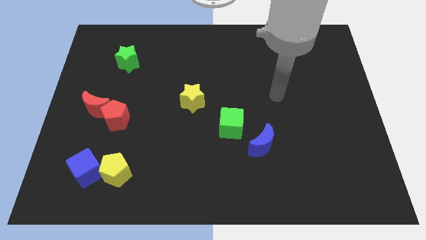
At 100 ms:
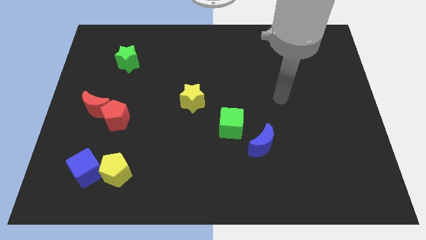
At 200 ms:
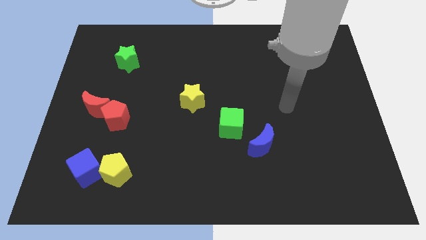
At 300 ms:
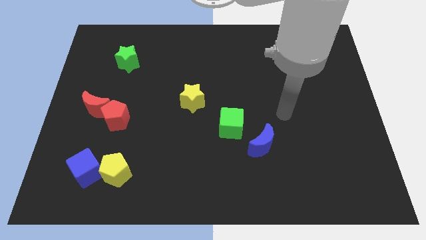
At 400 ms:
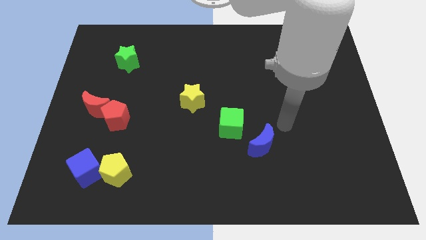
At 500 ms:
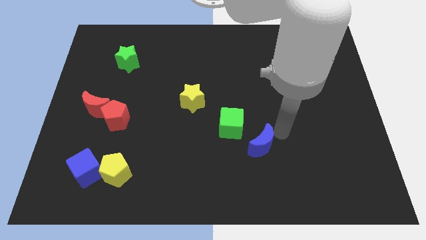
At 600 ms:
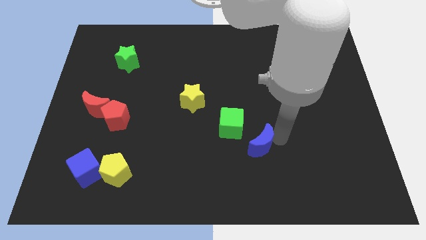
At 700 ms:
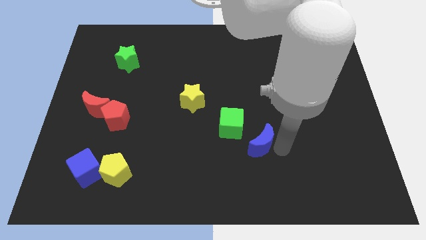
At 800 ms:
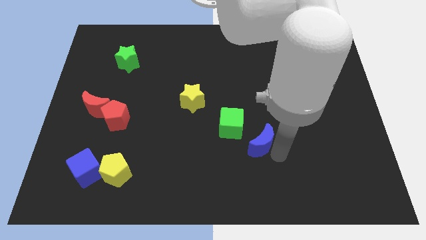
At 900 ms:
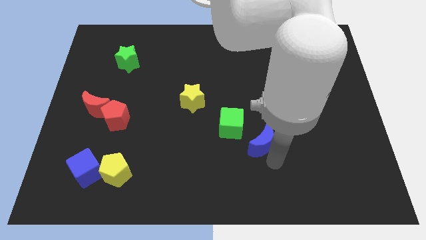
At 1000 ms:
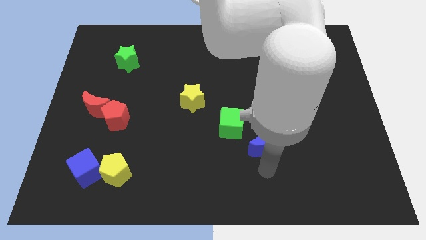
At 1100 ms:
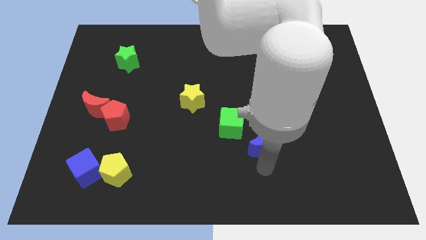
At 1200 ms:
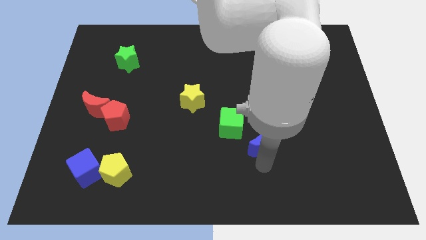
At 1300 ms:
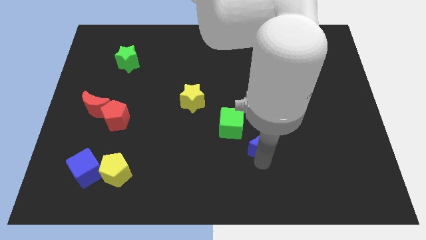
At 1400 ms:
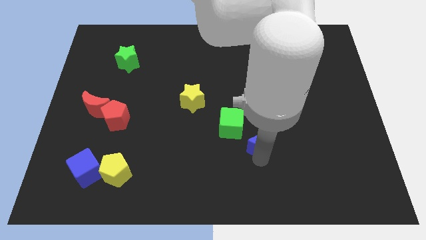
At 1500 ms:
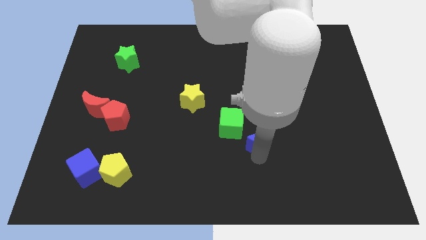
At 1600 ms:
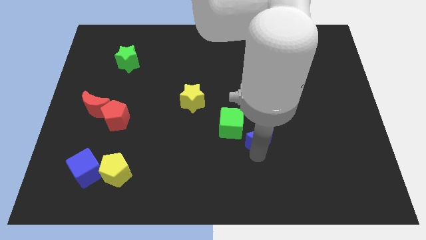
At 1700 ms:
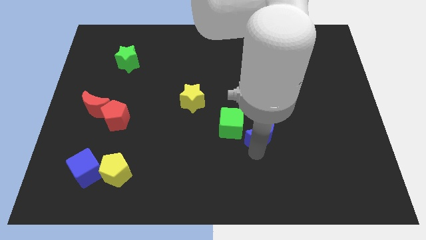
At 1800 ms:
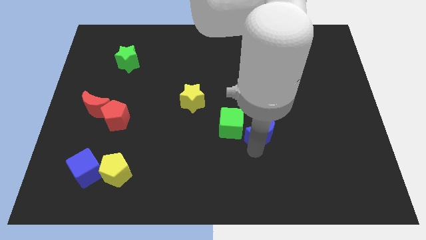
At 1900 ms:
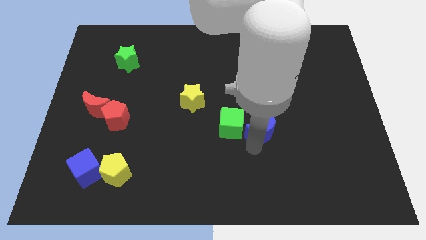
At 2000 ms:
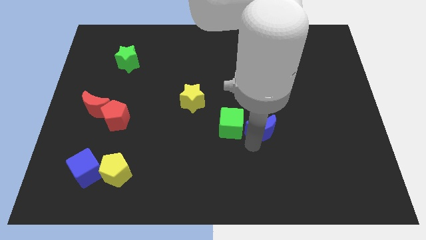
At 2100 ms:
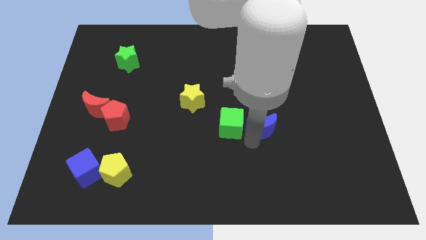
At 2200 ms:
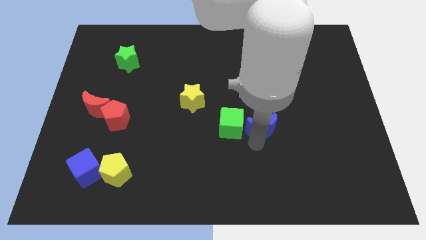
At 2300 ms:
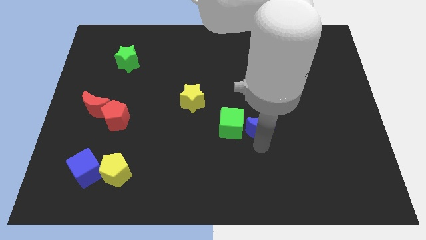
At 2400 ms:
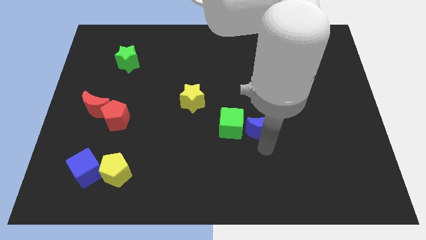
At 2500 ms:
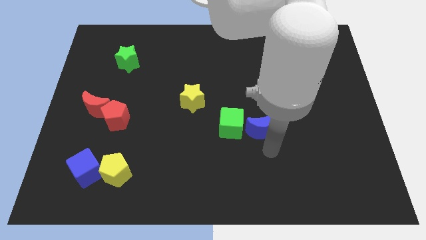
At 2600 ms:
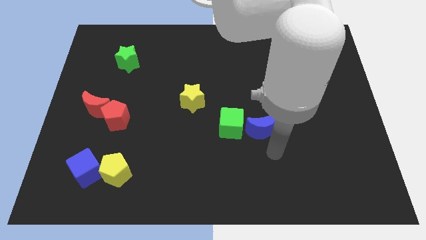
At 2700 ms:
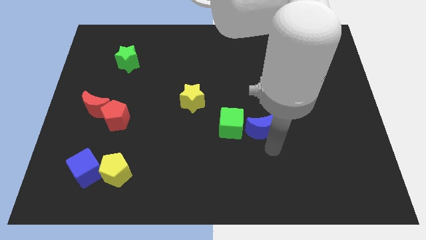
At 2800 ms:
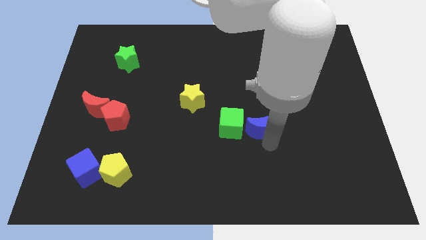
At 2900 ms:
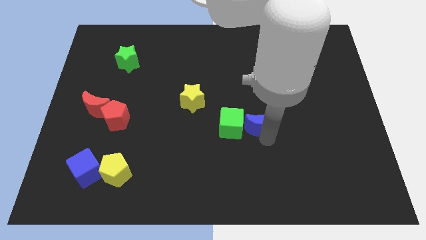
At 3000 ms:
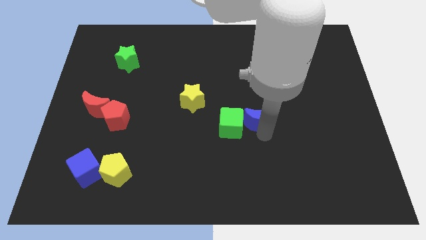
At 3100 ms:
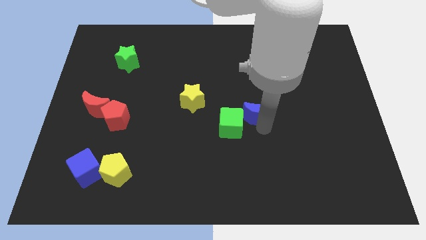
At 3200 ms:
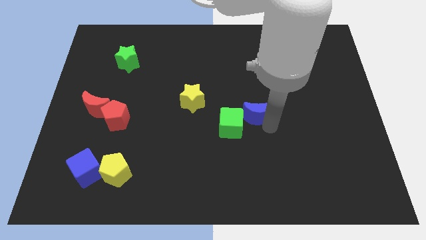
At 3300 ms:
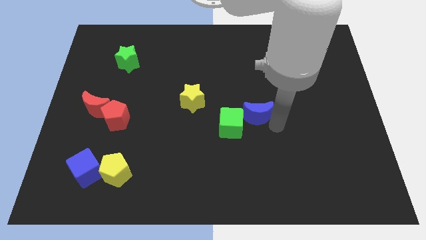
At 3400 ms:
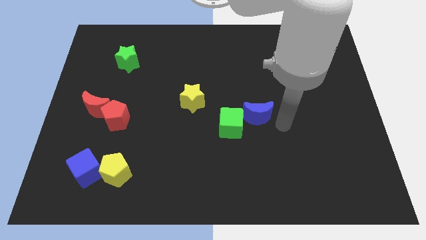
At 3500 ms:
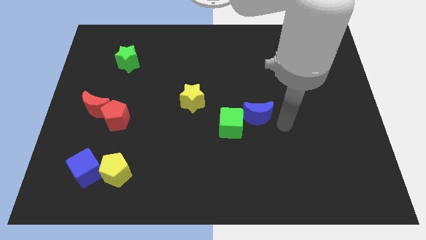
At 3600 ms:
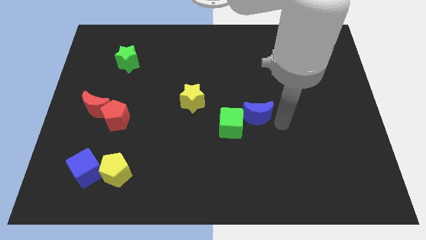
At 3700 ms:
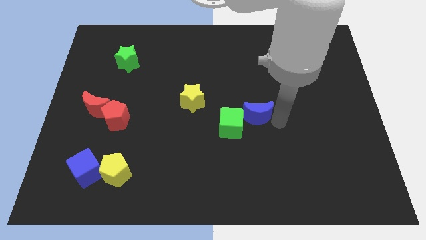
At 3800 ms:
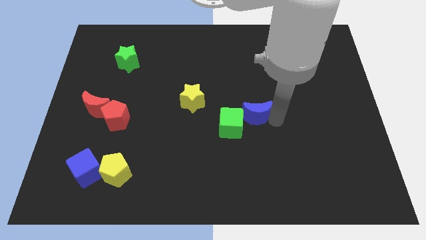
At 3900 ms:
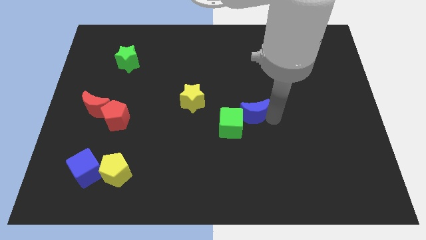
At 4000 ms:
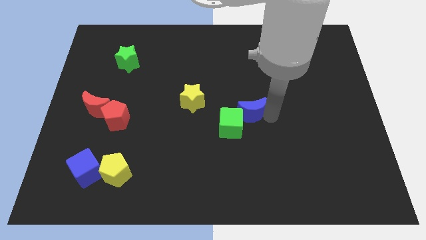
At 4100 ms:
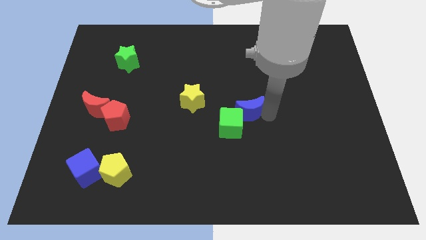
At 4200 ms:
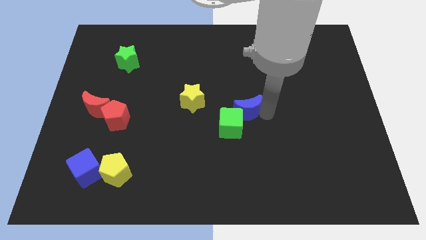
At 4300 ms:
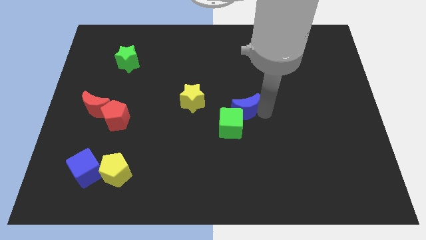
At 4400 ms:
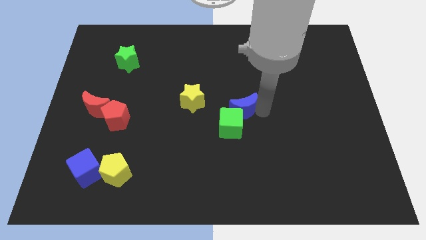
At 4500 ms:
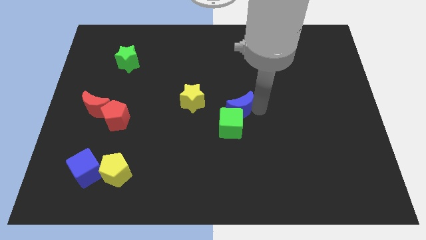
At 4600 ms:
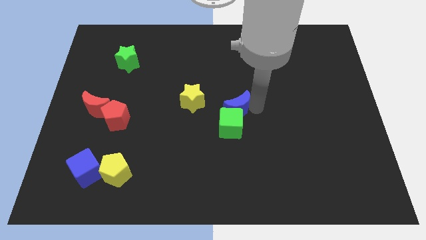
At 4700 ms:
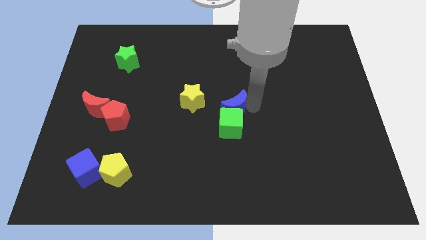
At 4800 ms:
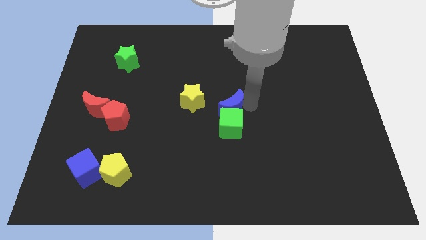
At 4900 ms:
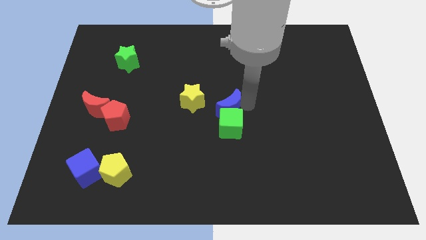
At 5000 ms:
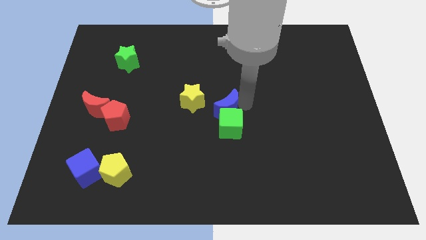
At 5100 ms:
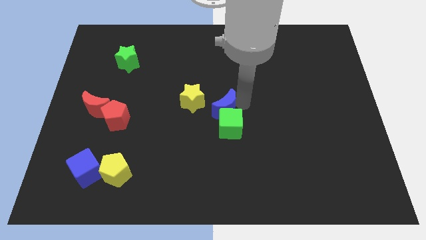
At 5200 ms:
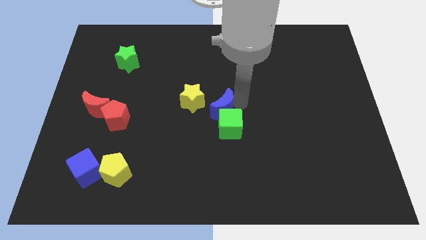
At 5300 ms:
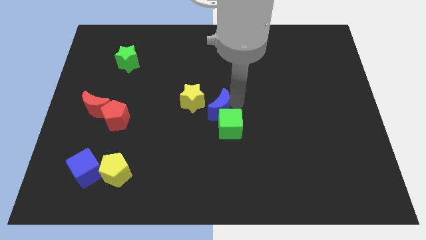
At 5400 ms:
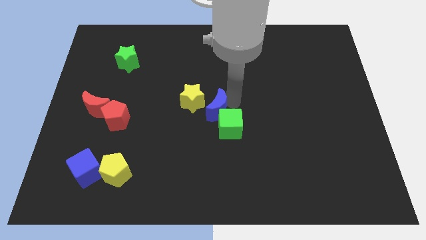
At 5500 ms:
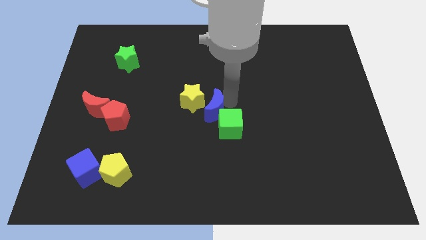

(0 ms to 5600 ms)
push the blue moon towards the yellow star

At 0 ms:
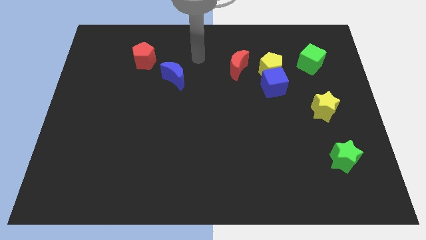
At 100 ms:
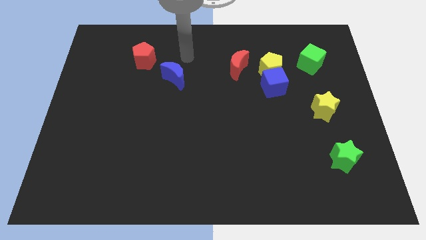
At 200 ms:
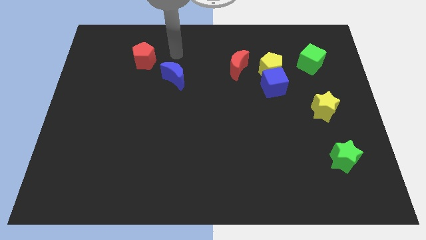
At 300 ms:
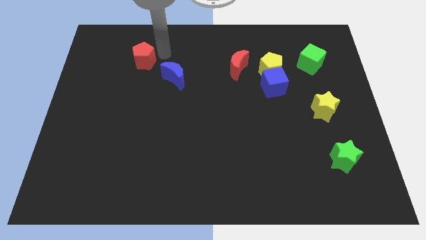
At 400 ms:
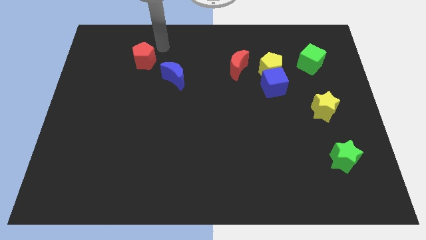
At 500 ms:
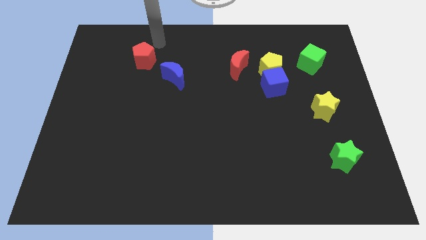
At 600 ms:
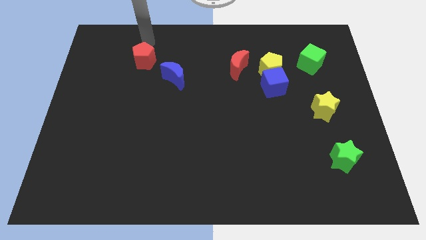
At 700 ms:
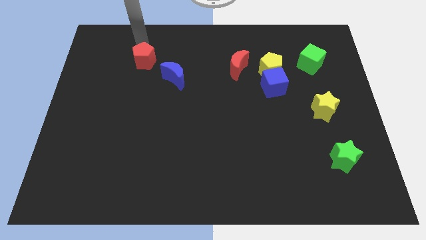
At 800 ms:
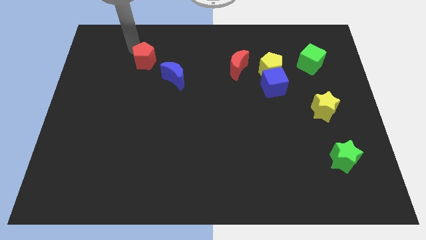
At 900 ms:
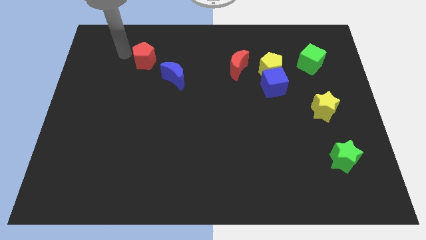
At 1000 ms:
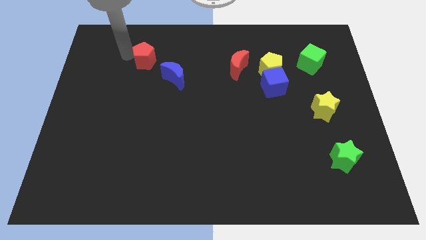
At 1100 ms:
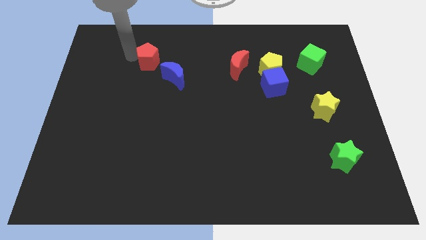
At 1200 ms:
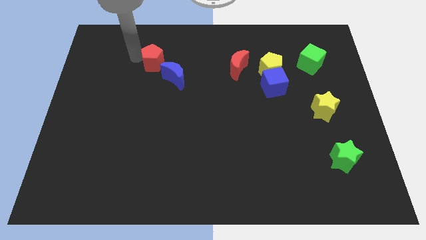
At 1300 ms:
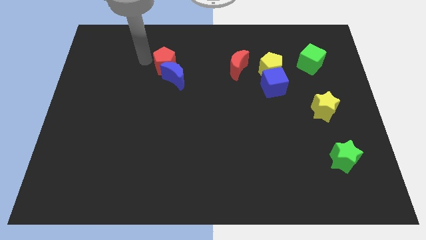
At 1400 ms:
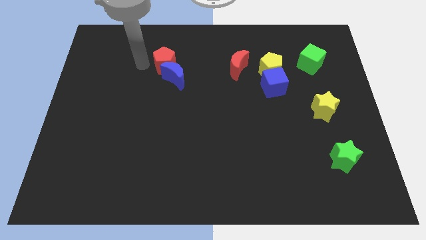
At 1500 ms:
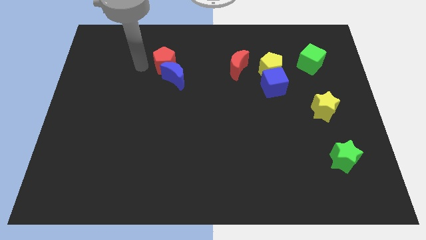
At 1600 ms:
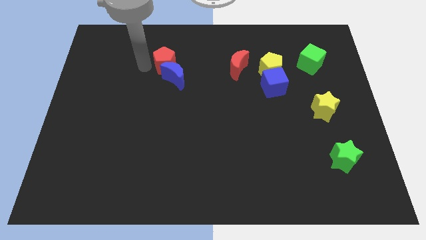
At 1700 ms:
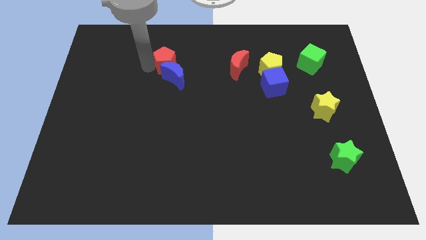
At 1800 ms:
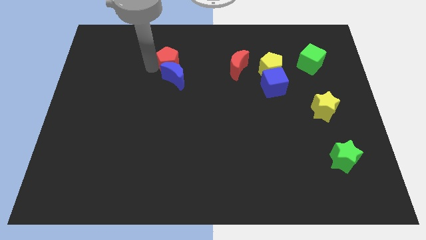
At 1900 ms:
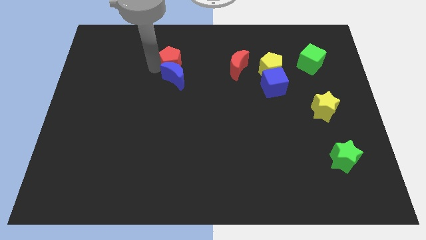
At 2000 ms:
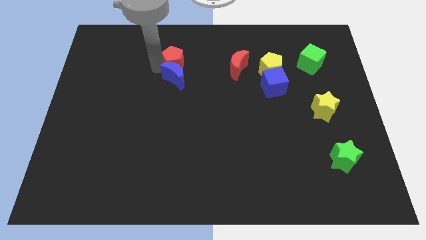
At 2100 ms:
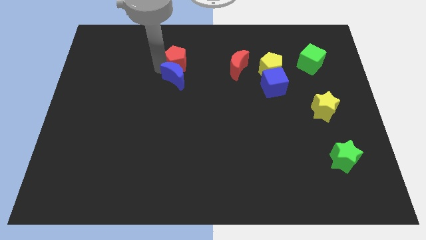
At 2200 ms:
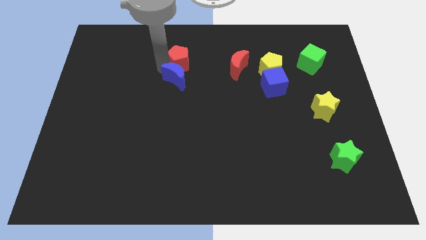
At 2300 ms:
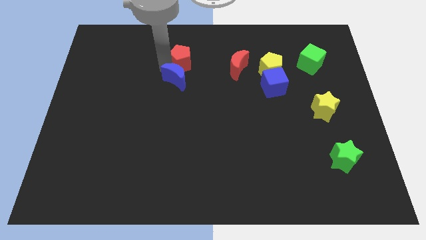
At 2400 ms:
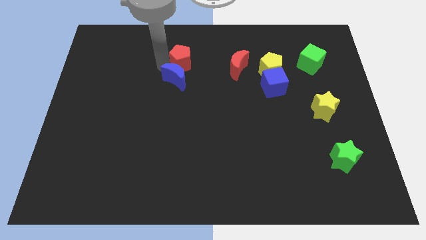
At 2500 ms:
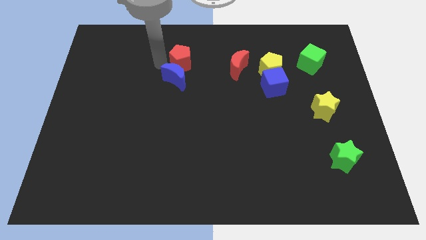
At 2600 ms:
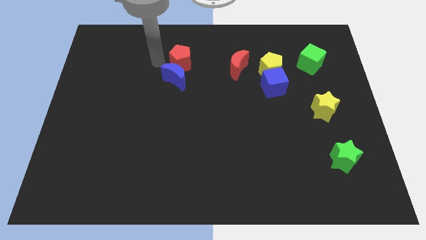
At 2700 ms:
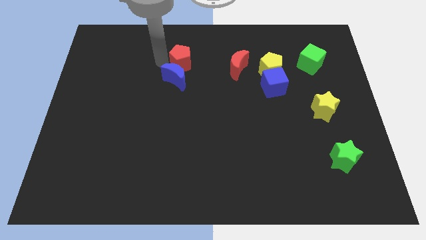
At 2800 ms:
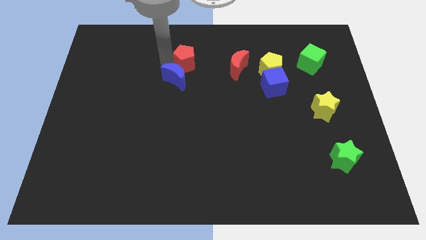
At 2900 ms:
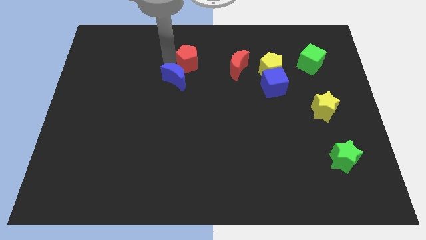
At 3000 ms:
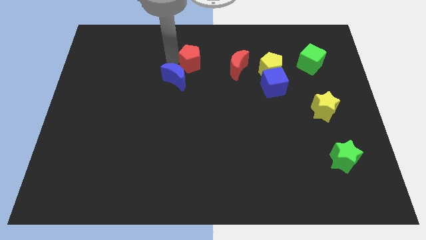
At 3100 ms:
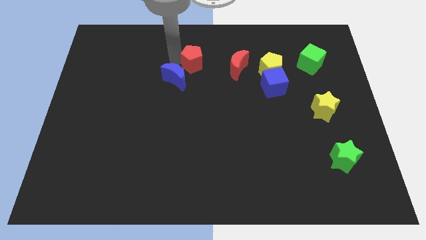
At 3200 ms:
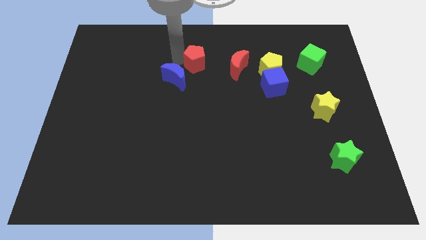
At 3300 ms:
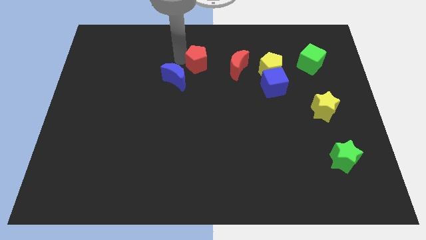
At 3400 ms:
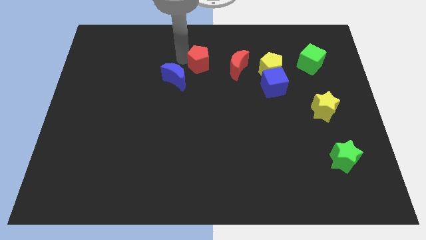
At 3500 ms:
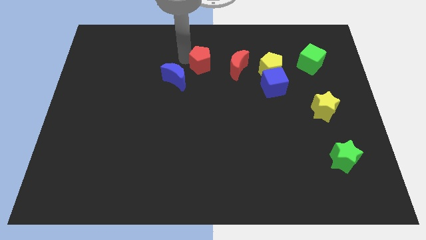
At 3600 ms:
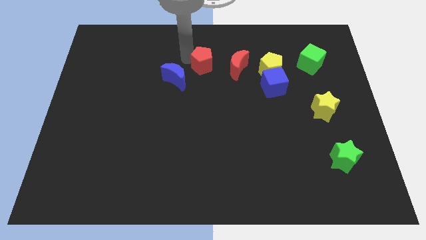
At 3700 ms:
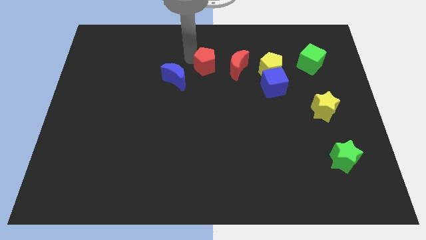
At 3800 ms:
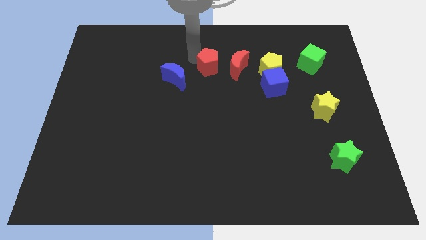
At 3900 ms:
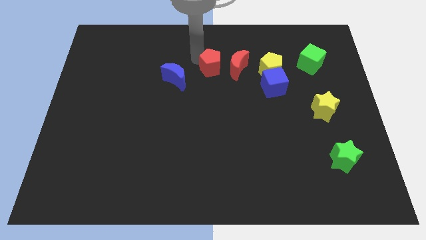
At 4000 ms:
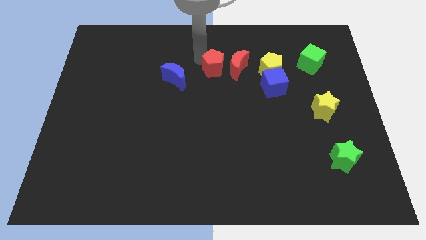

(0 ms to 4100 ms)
push the red pentagon next to the red moon
